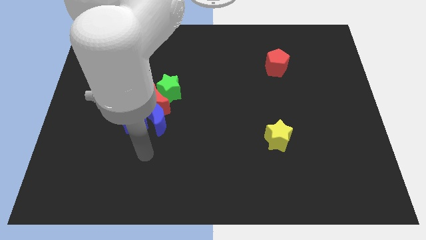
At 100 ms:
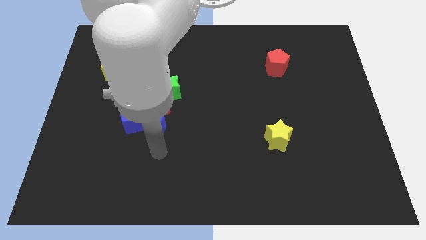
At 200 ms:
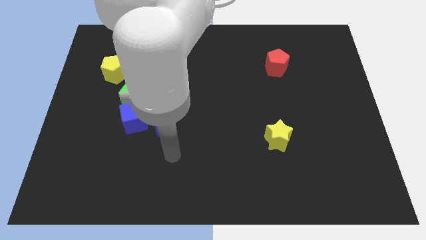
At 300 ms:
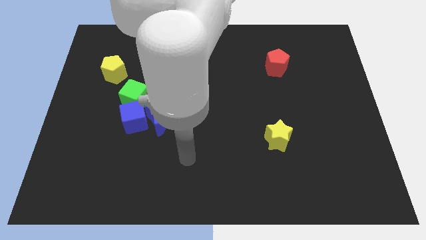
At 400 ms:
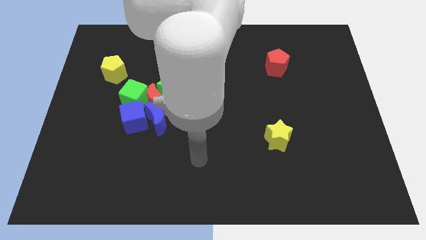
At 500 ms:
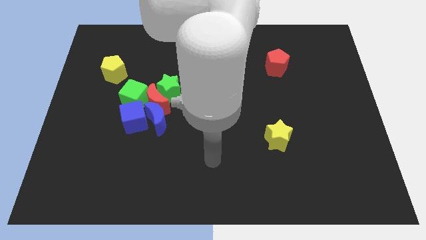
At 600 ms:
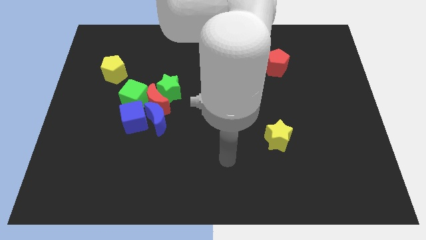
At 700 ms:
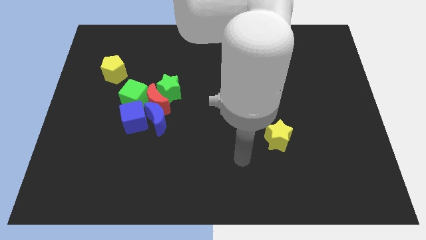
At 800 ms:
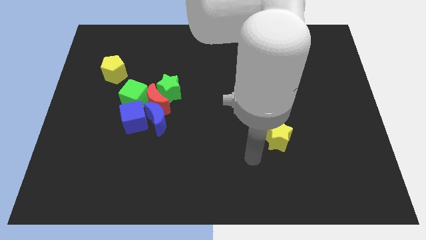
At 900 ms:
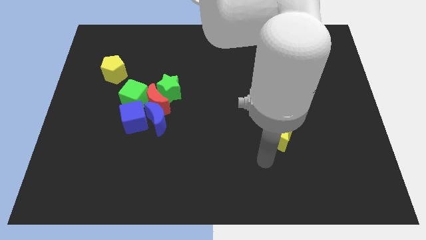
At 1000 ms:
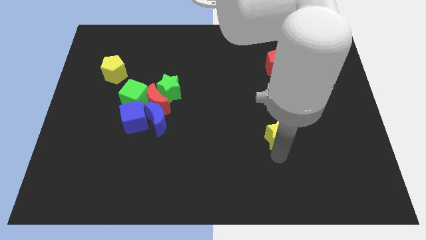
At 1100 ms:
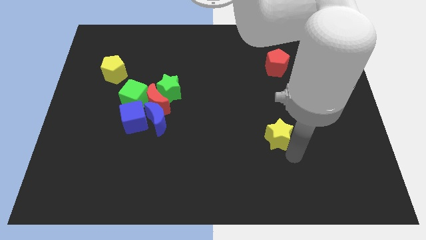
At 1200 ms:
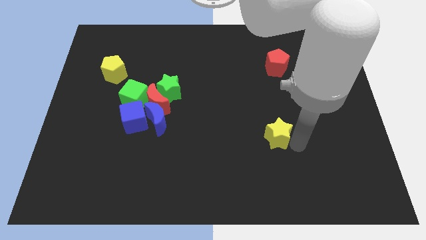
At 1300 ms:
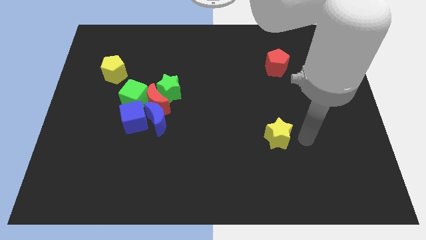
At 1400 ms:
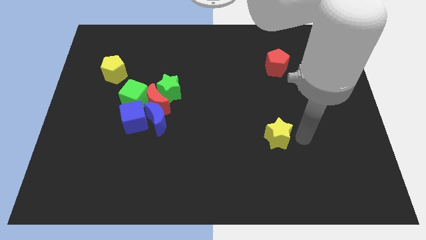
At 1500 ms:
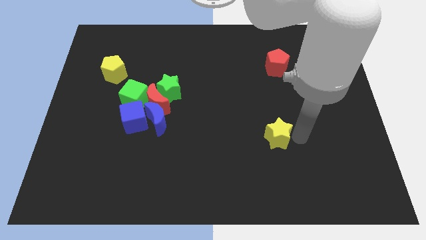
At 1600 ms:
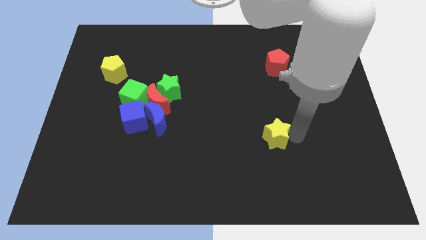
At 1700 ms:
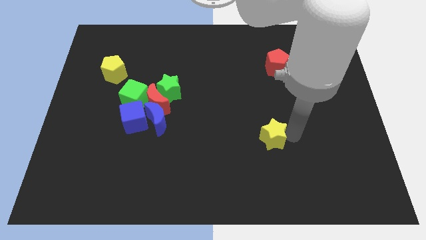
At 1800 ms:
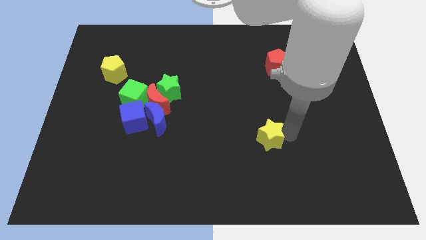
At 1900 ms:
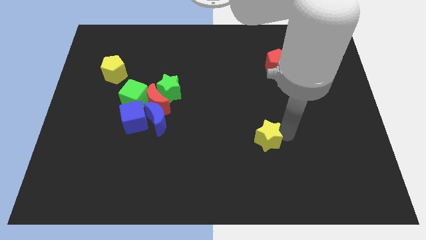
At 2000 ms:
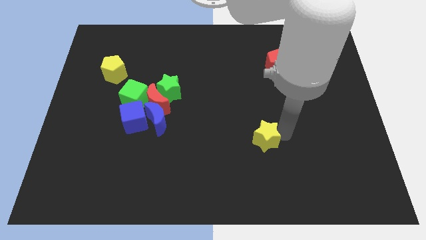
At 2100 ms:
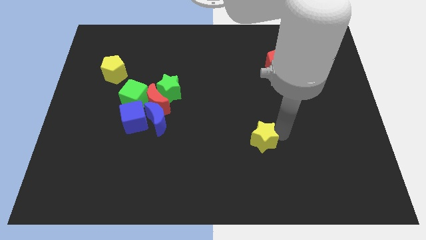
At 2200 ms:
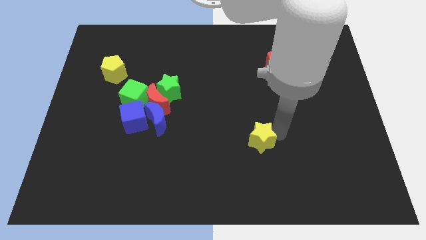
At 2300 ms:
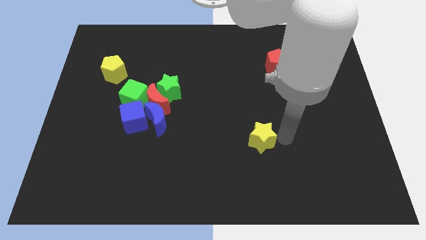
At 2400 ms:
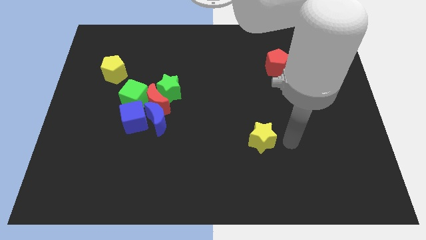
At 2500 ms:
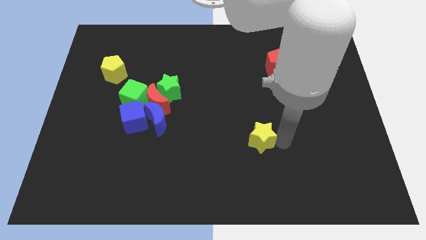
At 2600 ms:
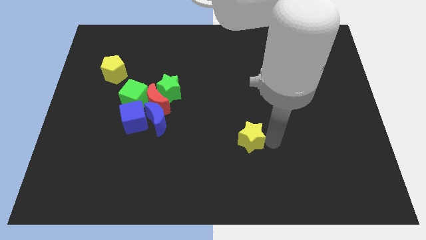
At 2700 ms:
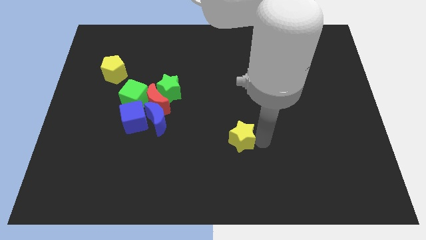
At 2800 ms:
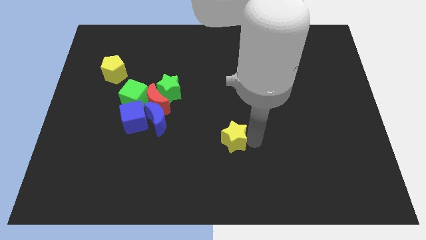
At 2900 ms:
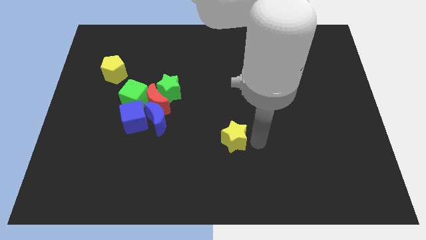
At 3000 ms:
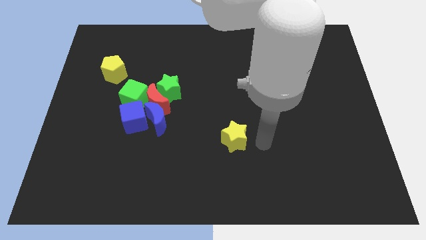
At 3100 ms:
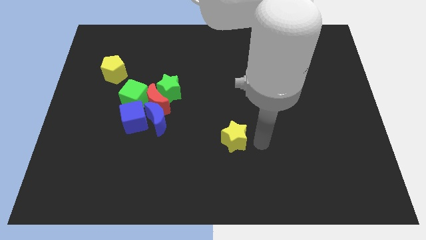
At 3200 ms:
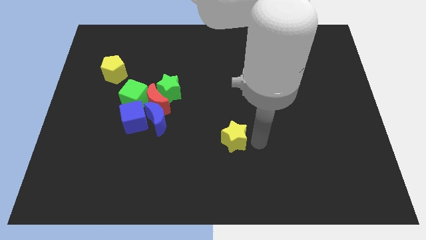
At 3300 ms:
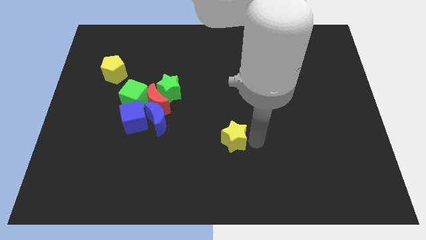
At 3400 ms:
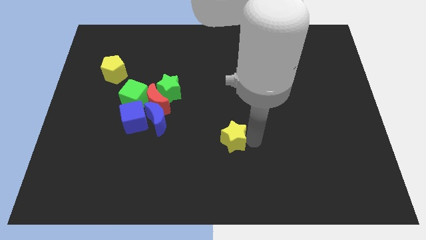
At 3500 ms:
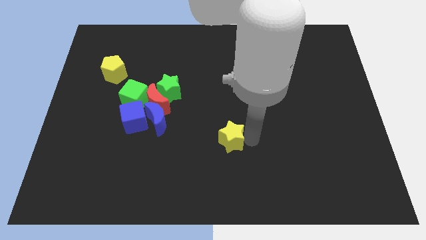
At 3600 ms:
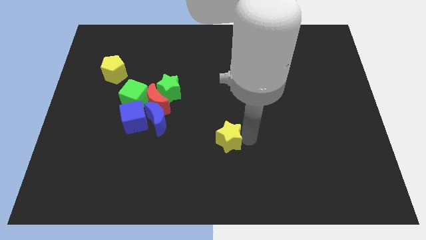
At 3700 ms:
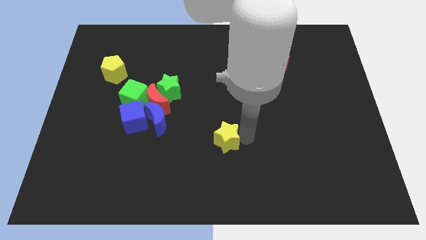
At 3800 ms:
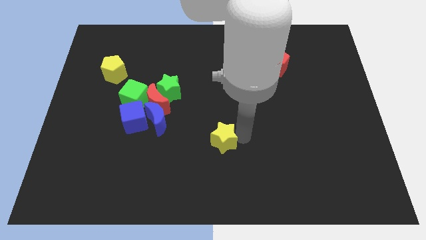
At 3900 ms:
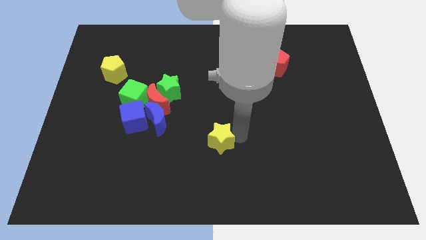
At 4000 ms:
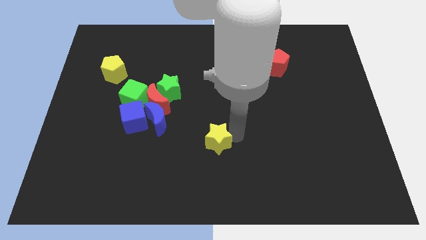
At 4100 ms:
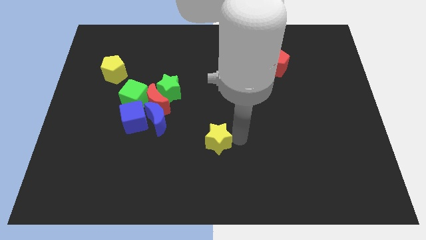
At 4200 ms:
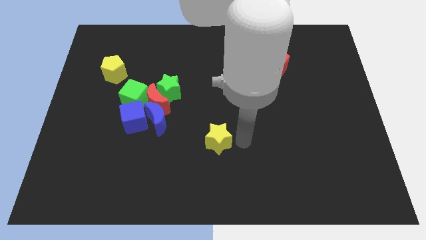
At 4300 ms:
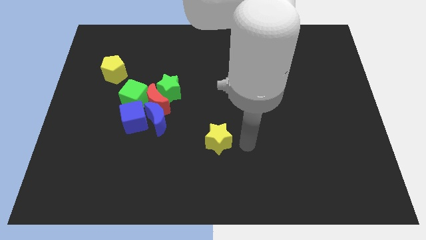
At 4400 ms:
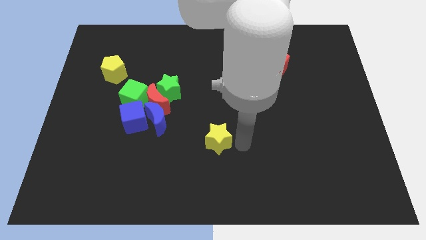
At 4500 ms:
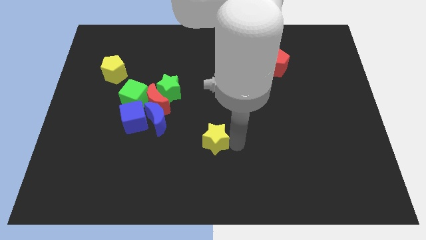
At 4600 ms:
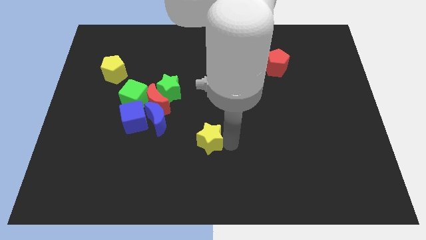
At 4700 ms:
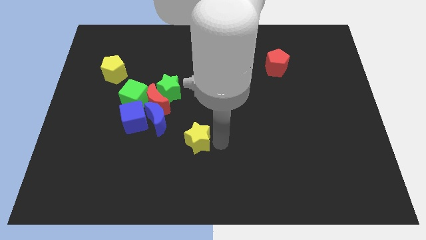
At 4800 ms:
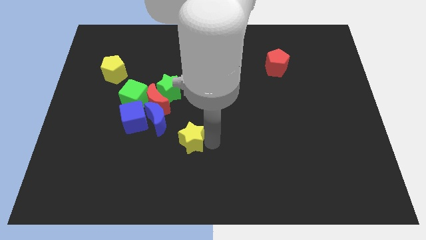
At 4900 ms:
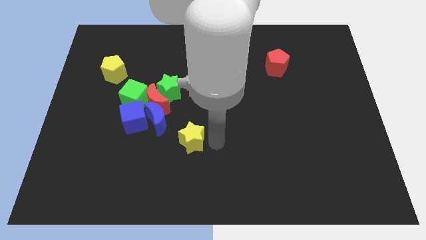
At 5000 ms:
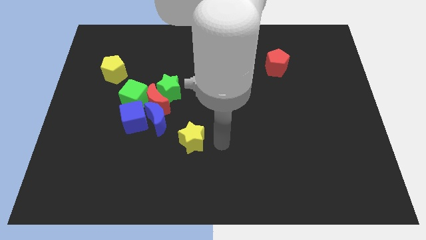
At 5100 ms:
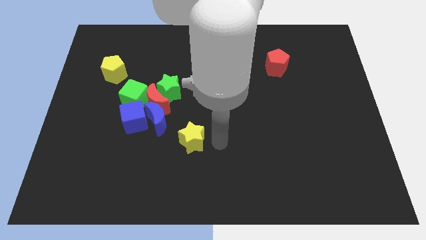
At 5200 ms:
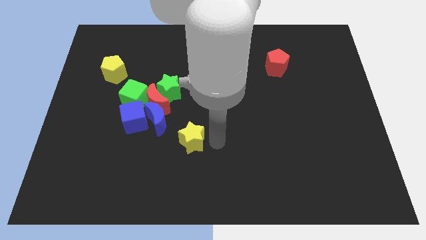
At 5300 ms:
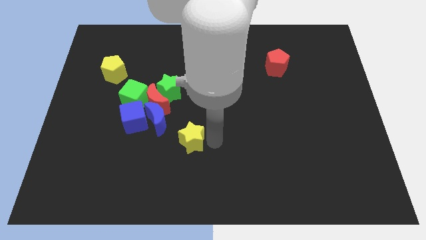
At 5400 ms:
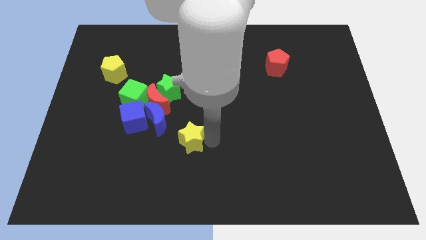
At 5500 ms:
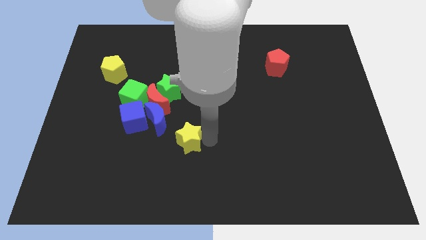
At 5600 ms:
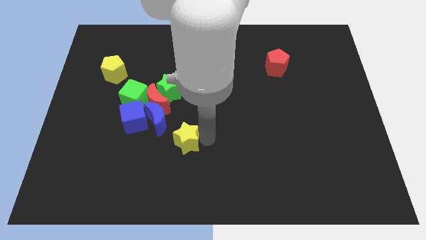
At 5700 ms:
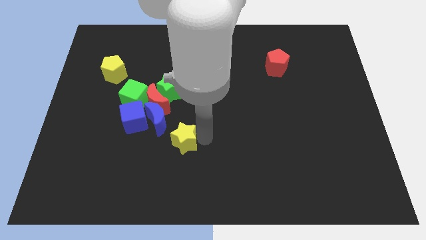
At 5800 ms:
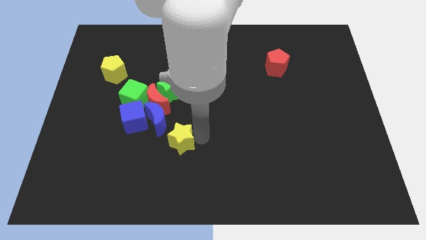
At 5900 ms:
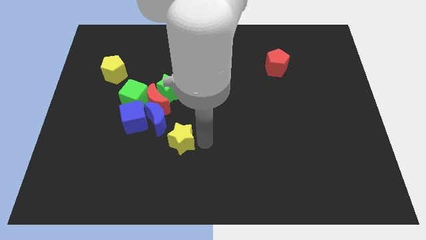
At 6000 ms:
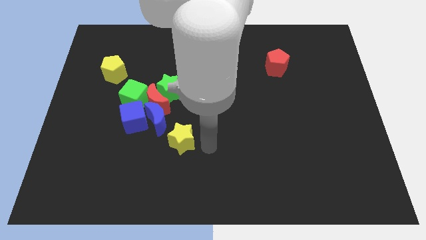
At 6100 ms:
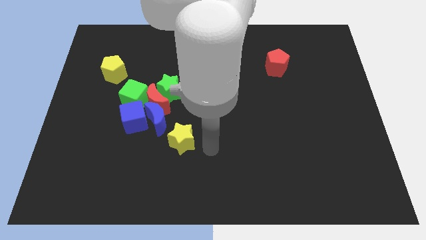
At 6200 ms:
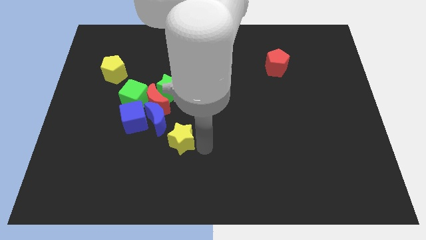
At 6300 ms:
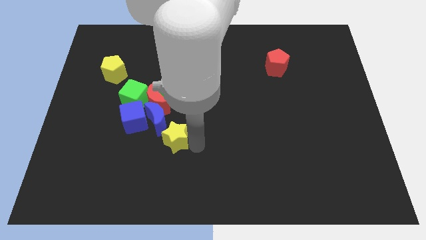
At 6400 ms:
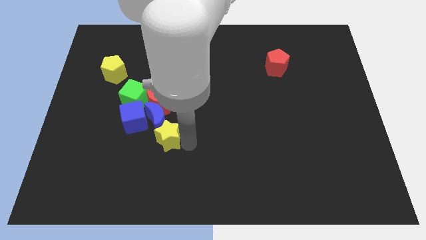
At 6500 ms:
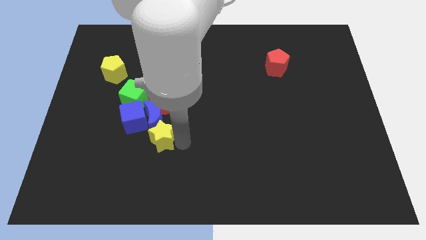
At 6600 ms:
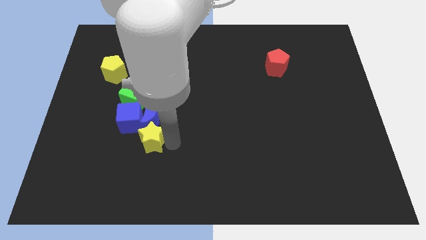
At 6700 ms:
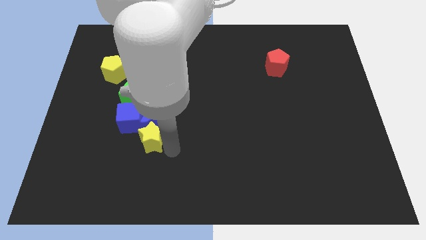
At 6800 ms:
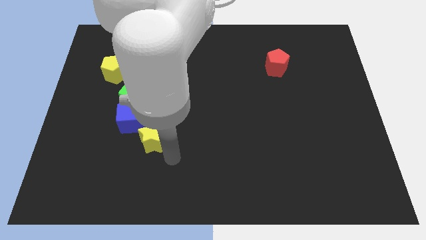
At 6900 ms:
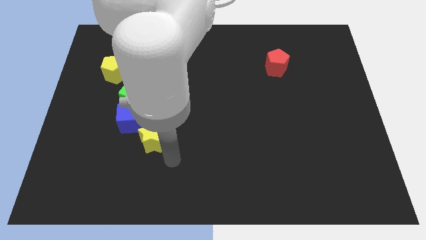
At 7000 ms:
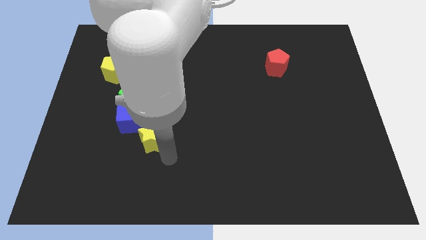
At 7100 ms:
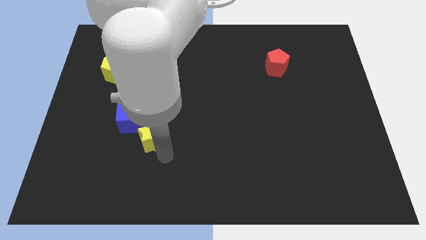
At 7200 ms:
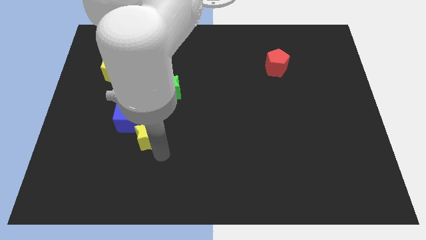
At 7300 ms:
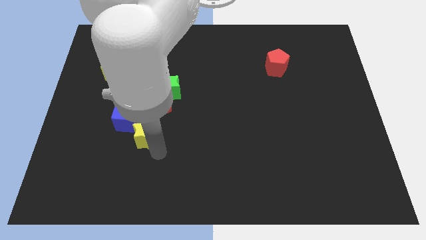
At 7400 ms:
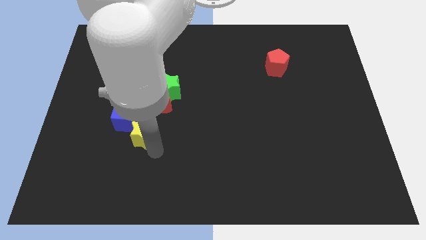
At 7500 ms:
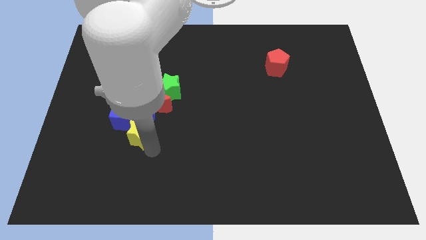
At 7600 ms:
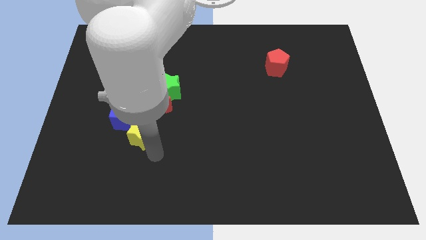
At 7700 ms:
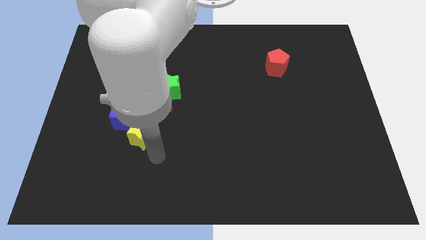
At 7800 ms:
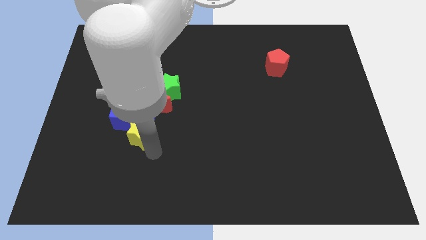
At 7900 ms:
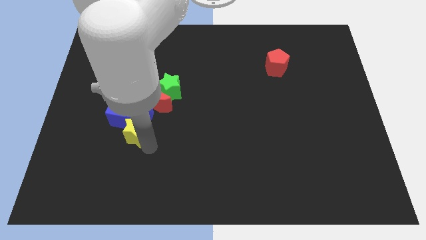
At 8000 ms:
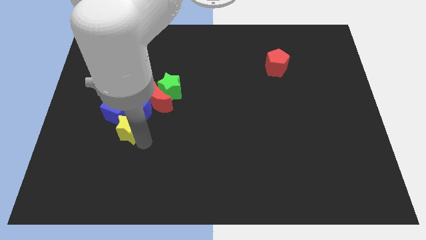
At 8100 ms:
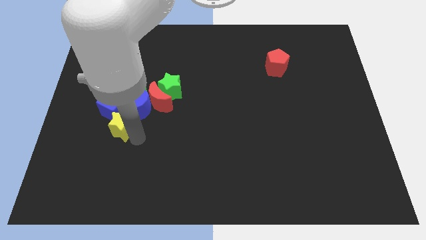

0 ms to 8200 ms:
put the yellow star close to the blue cube
